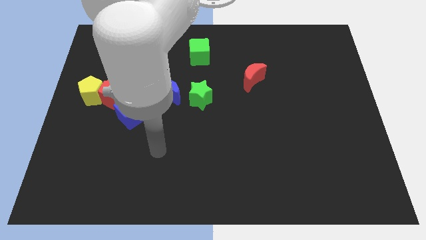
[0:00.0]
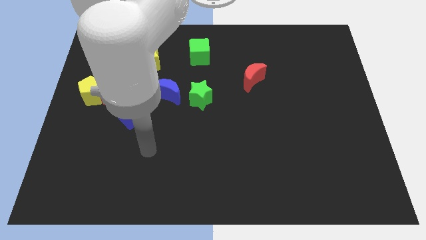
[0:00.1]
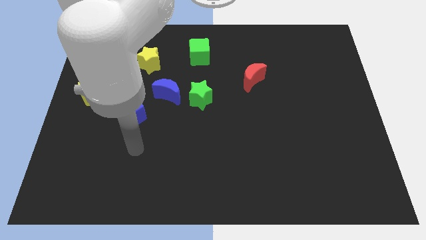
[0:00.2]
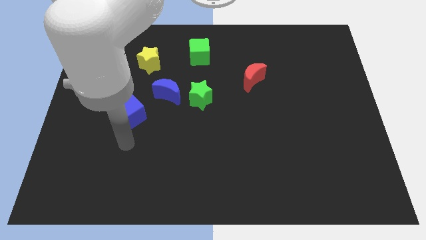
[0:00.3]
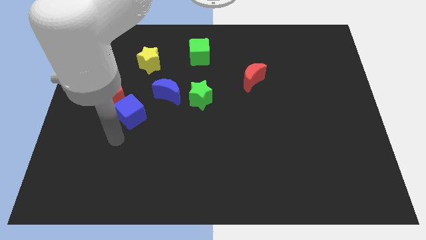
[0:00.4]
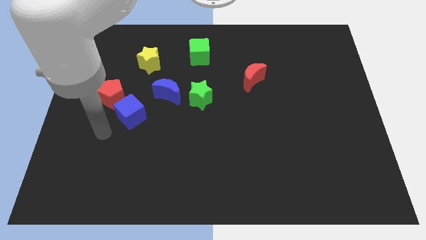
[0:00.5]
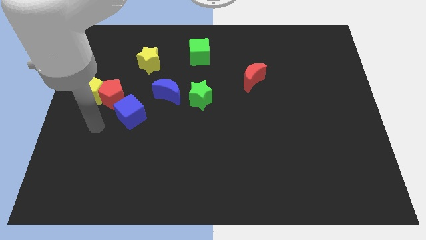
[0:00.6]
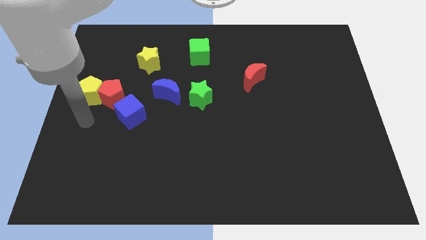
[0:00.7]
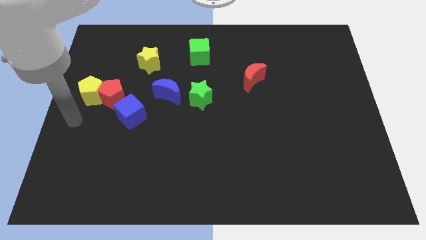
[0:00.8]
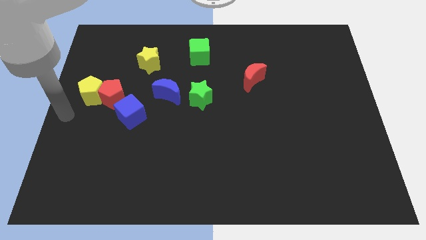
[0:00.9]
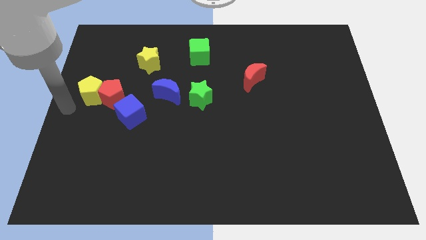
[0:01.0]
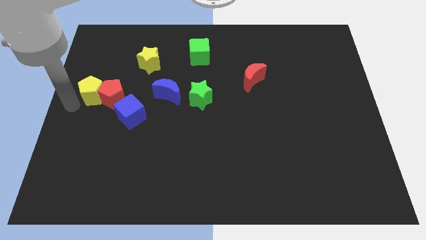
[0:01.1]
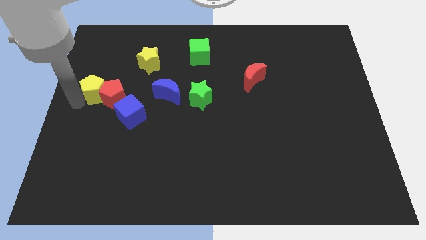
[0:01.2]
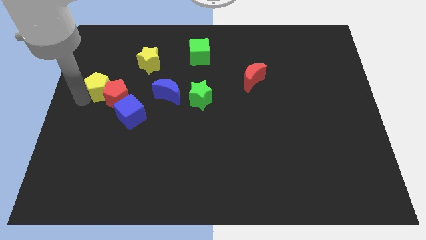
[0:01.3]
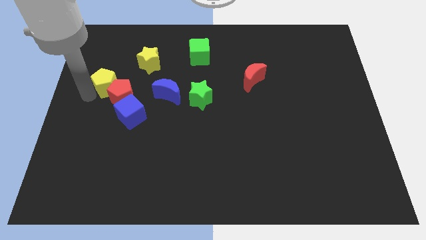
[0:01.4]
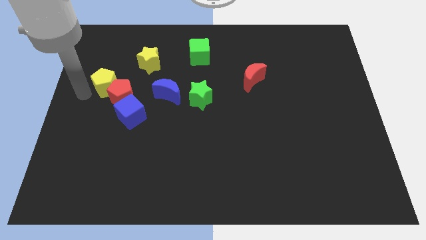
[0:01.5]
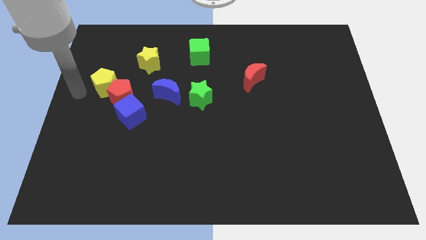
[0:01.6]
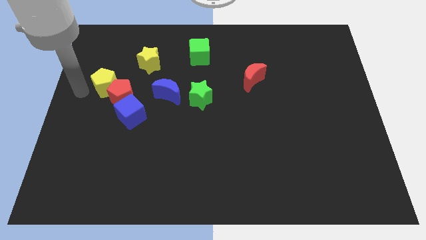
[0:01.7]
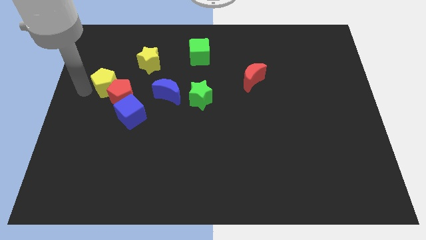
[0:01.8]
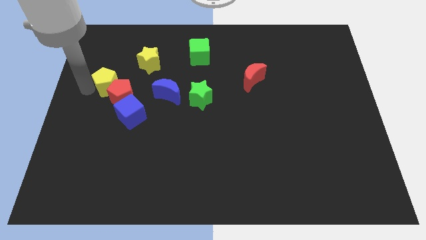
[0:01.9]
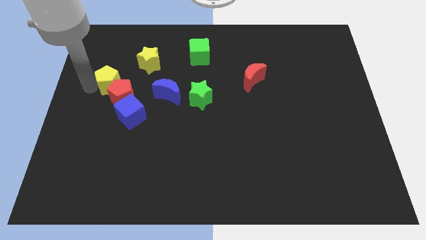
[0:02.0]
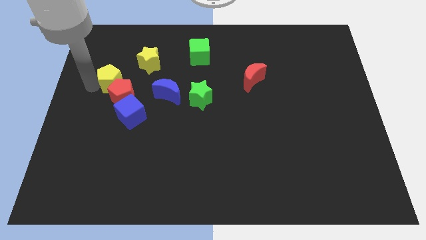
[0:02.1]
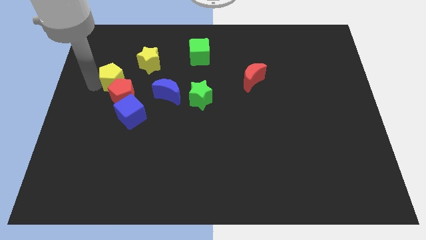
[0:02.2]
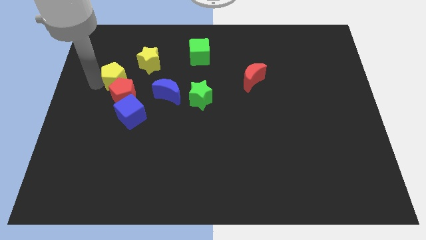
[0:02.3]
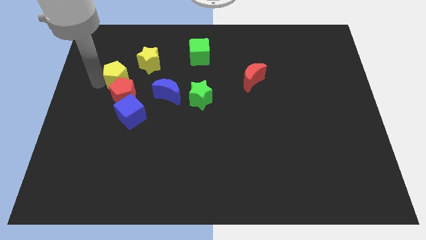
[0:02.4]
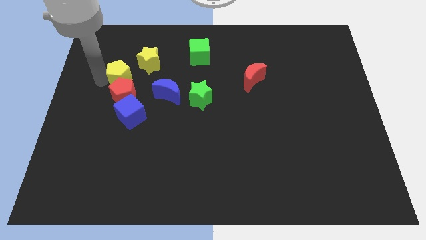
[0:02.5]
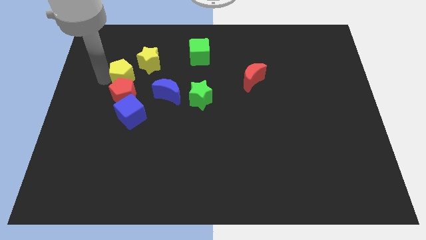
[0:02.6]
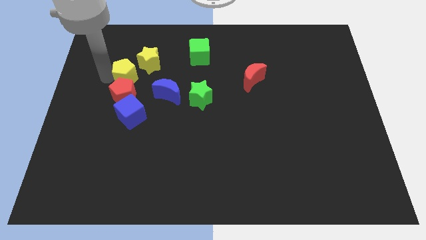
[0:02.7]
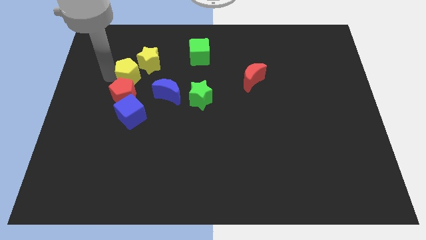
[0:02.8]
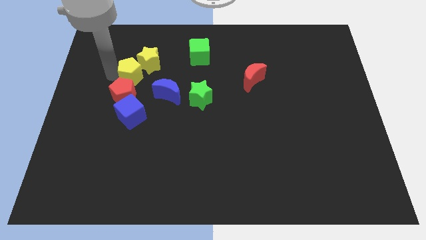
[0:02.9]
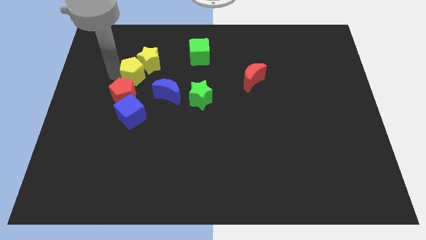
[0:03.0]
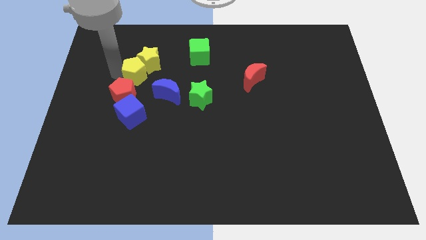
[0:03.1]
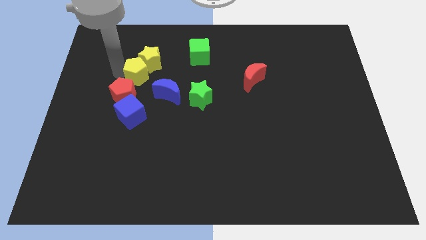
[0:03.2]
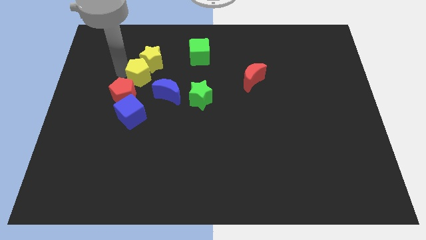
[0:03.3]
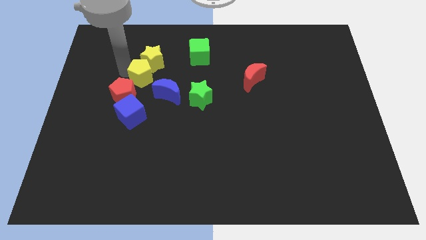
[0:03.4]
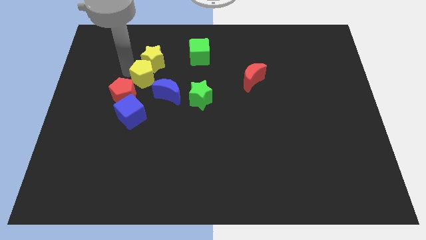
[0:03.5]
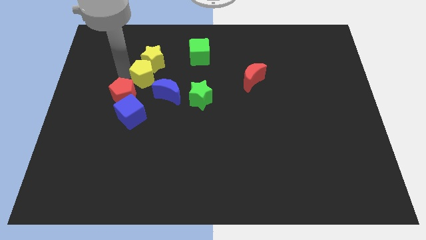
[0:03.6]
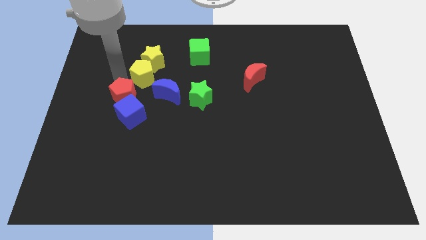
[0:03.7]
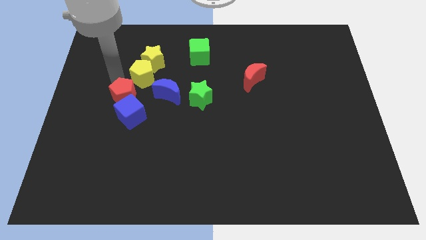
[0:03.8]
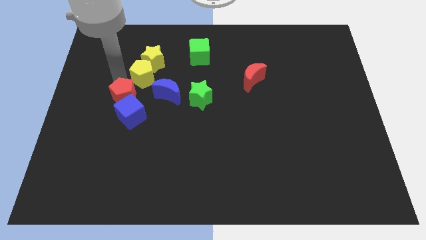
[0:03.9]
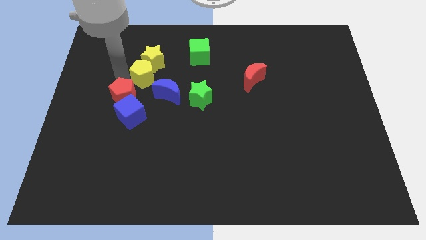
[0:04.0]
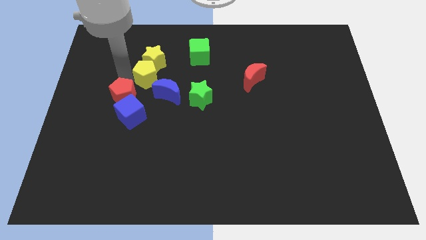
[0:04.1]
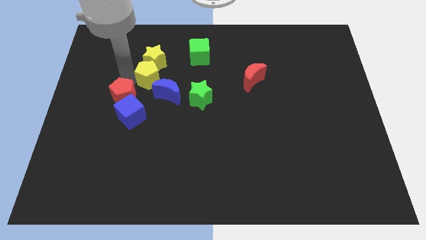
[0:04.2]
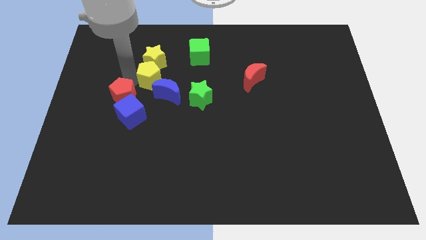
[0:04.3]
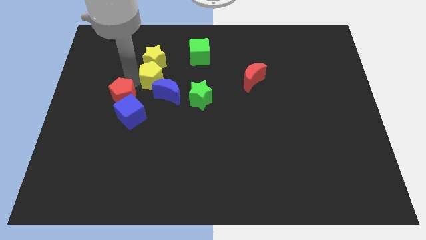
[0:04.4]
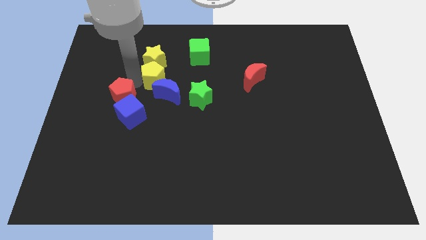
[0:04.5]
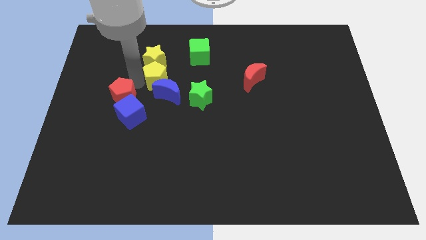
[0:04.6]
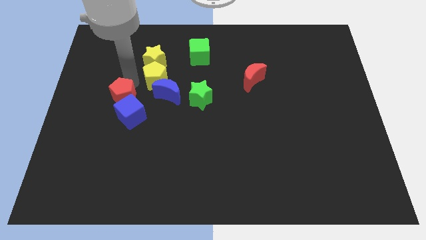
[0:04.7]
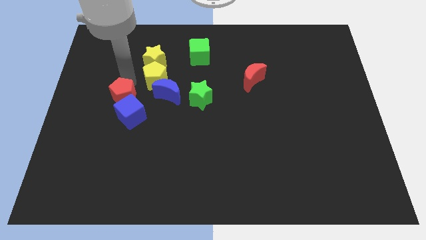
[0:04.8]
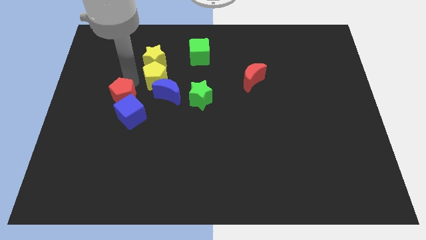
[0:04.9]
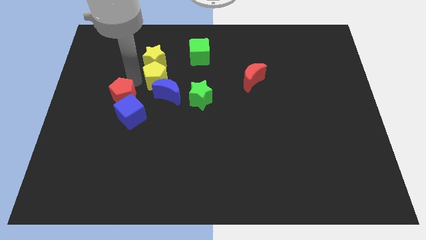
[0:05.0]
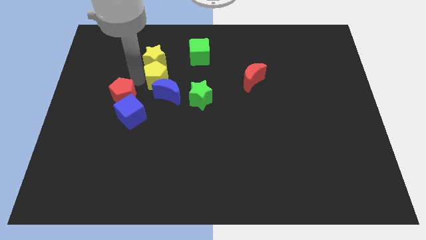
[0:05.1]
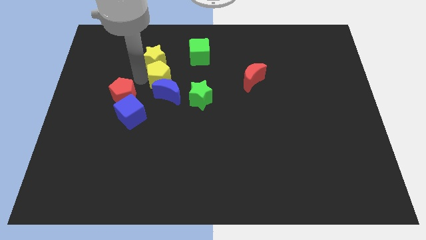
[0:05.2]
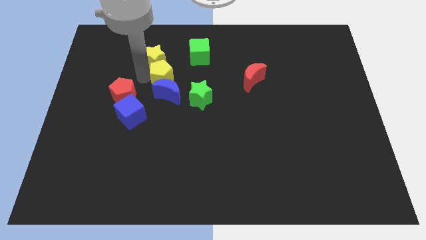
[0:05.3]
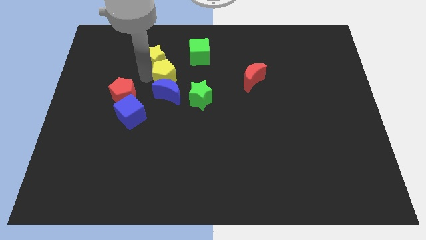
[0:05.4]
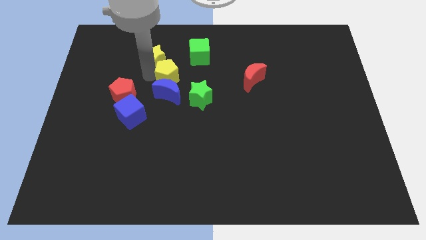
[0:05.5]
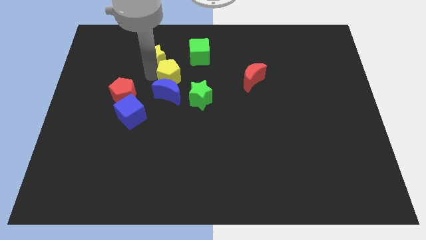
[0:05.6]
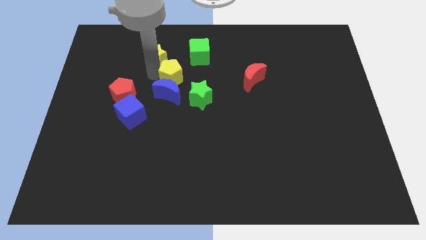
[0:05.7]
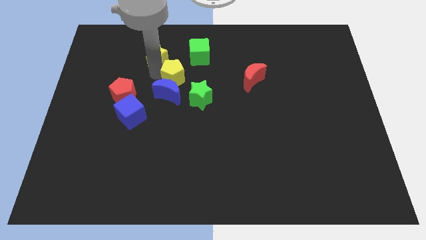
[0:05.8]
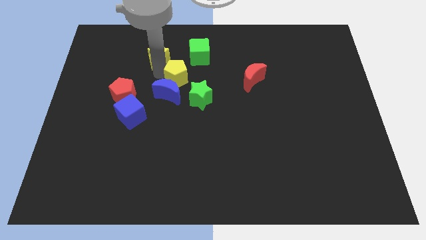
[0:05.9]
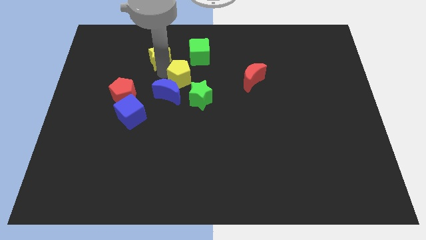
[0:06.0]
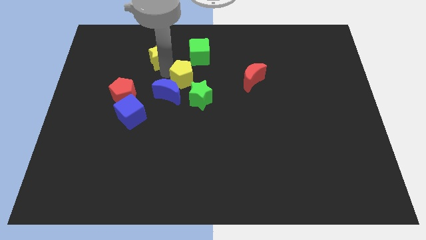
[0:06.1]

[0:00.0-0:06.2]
move the yellow pentagon right

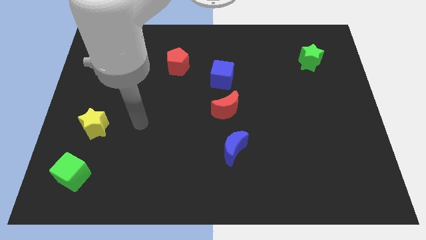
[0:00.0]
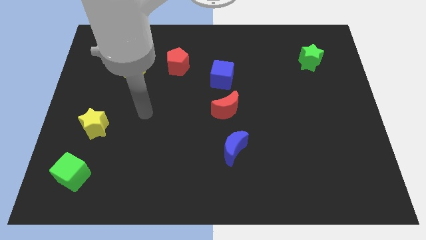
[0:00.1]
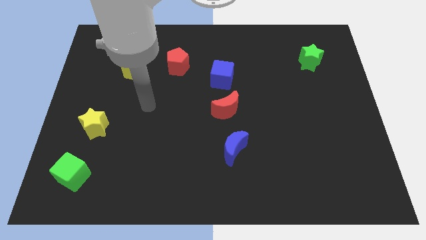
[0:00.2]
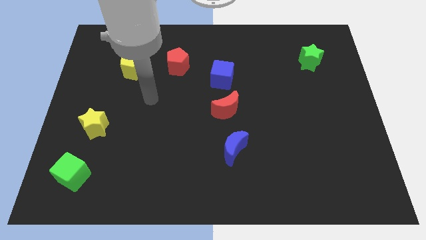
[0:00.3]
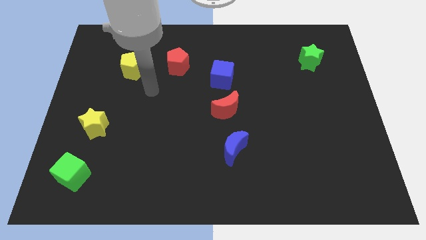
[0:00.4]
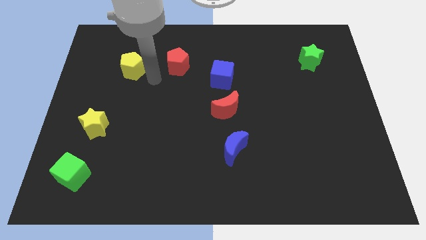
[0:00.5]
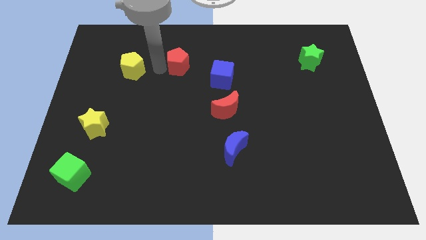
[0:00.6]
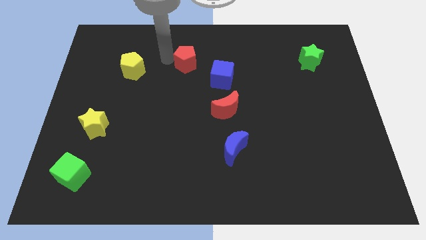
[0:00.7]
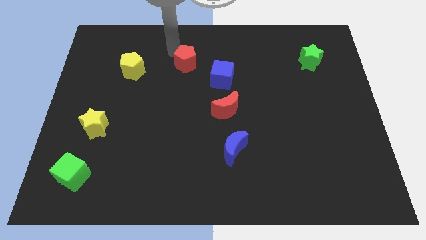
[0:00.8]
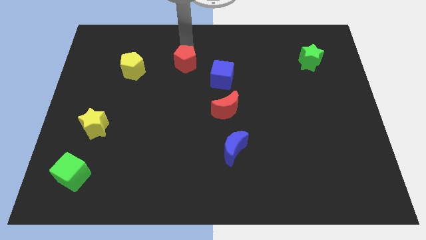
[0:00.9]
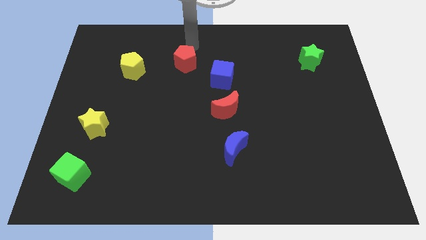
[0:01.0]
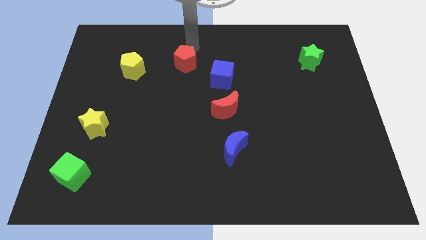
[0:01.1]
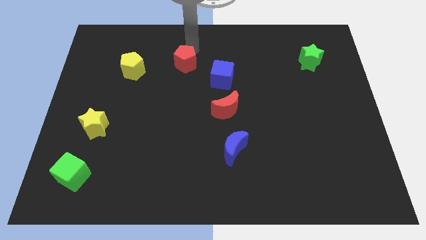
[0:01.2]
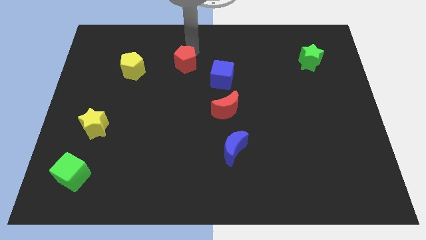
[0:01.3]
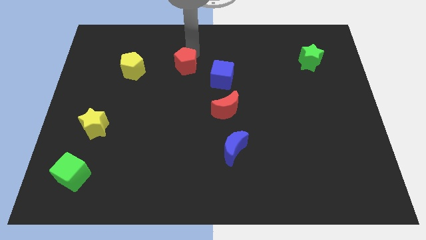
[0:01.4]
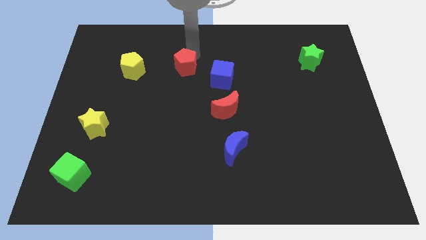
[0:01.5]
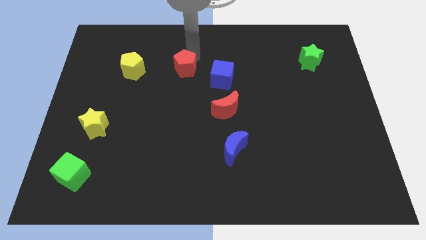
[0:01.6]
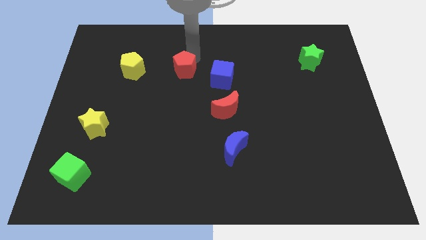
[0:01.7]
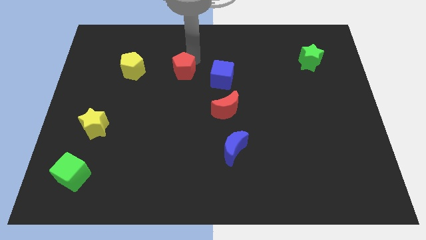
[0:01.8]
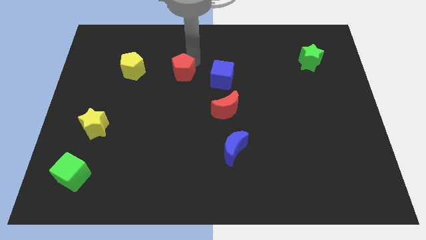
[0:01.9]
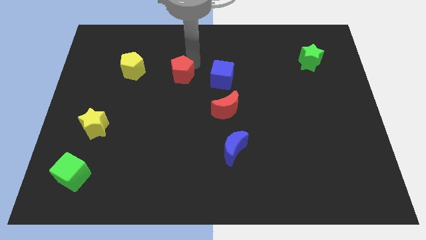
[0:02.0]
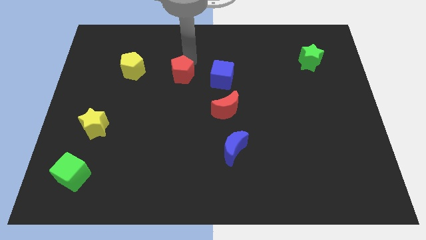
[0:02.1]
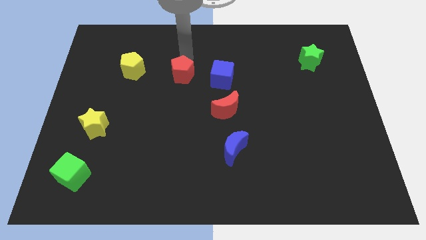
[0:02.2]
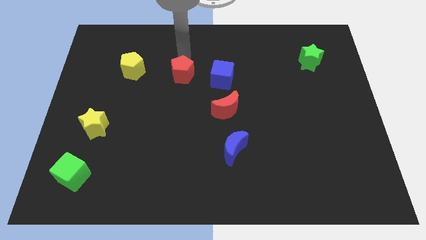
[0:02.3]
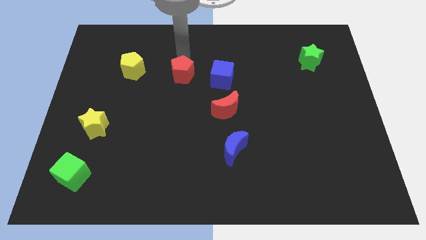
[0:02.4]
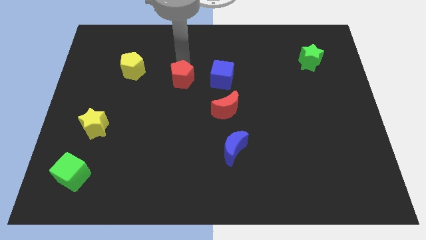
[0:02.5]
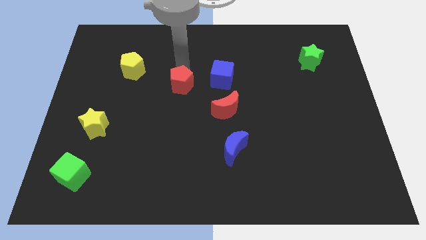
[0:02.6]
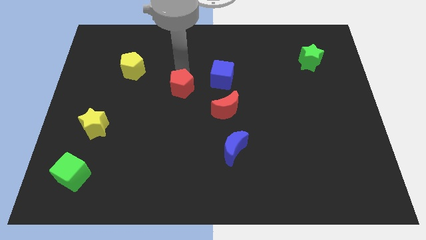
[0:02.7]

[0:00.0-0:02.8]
push the red pentagon downwards a bit
